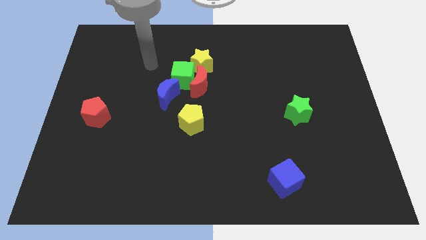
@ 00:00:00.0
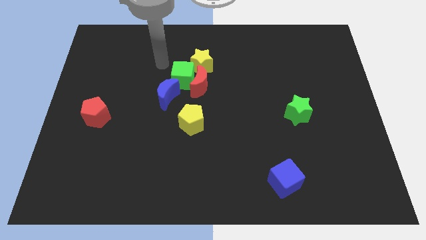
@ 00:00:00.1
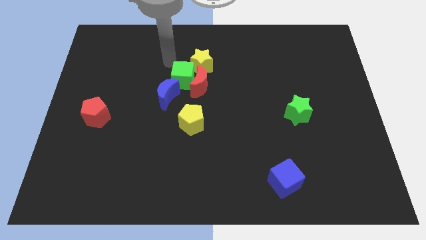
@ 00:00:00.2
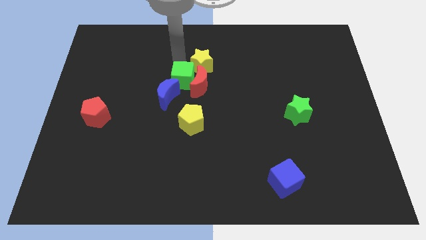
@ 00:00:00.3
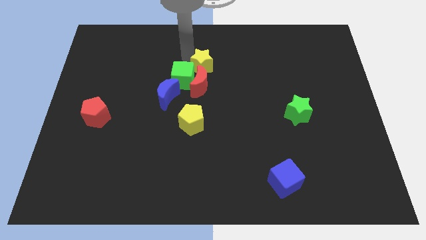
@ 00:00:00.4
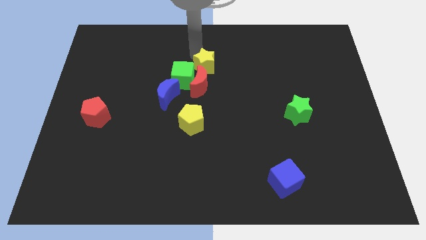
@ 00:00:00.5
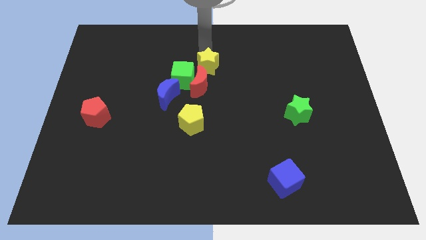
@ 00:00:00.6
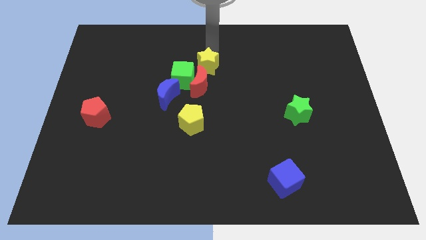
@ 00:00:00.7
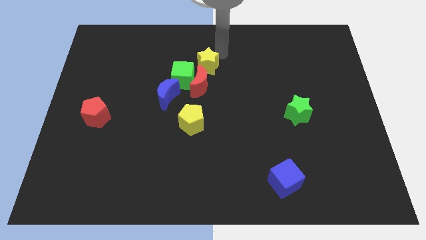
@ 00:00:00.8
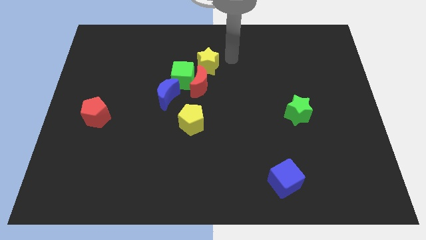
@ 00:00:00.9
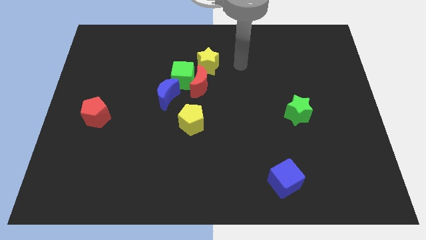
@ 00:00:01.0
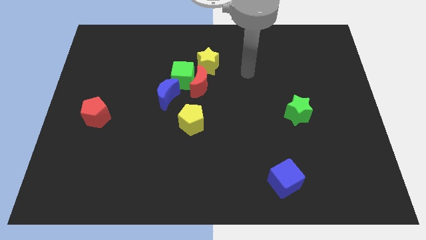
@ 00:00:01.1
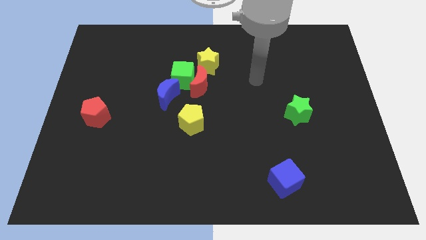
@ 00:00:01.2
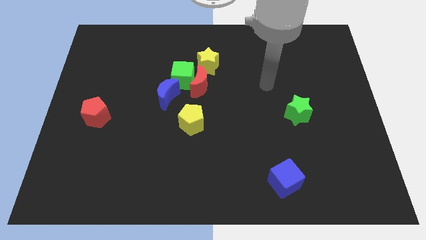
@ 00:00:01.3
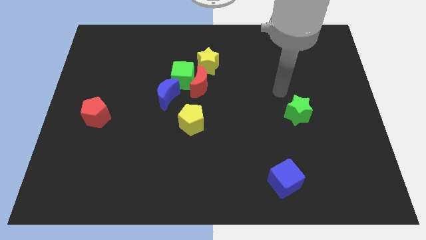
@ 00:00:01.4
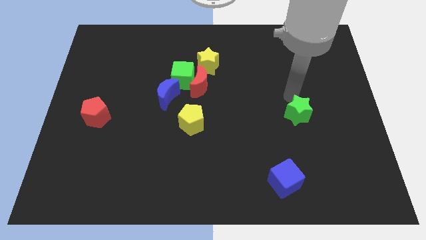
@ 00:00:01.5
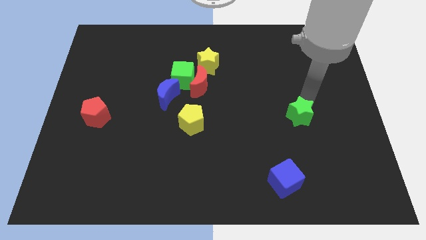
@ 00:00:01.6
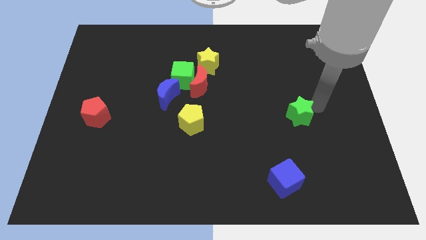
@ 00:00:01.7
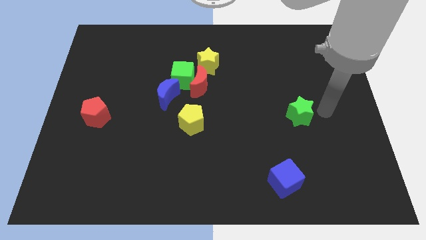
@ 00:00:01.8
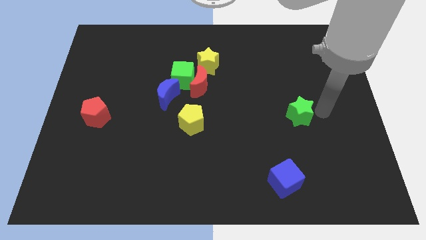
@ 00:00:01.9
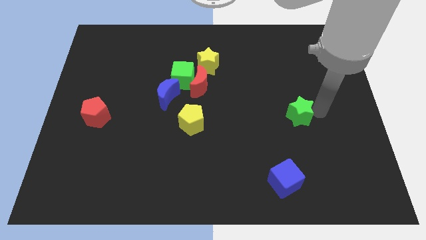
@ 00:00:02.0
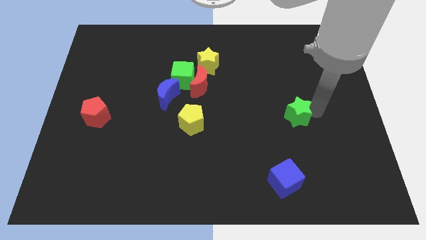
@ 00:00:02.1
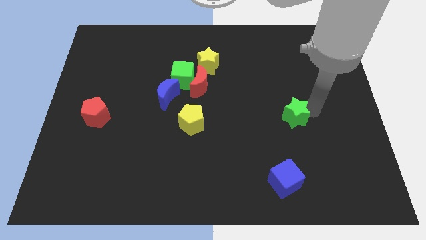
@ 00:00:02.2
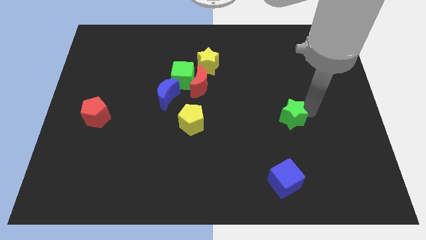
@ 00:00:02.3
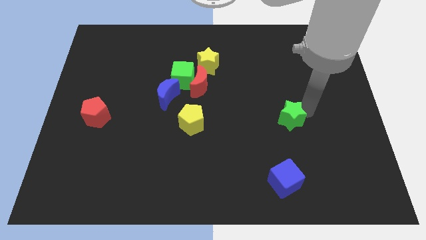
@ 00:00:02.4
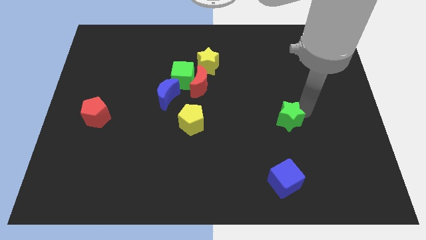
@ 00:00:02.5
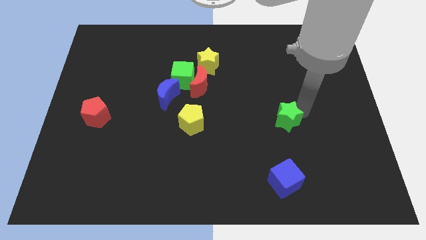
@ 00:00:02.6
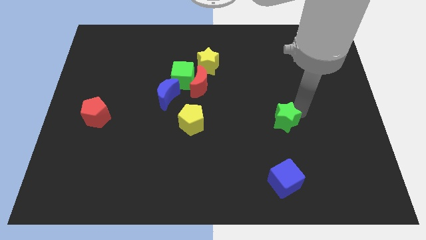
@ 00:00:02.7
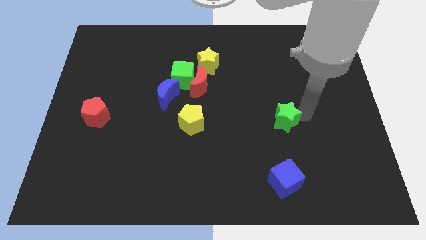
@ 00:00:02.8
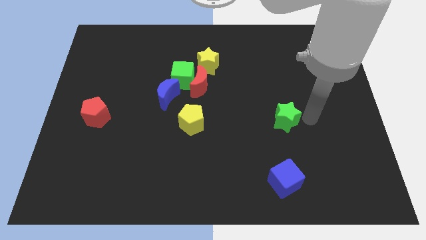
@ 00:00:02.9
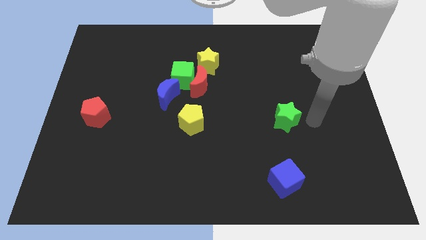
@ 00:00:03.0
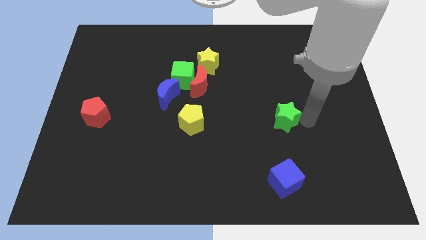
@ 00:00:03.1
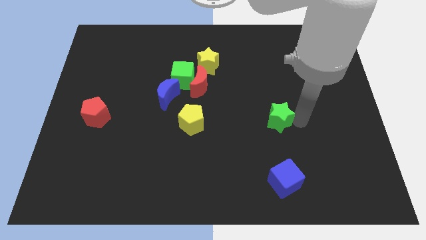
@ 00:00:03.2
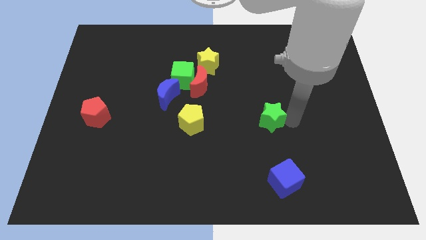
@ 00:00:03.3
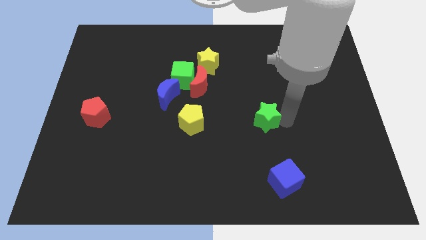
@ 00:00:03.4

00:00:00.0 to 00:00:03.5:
slide the green star slightly to the left

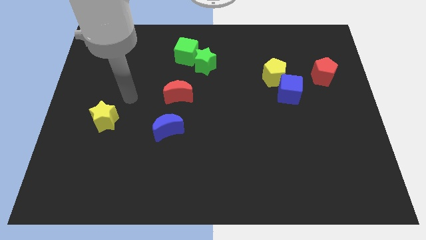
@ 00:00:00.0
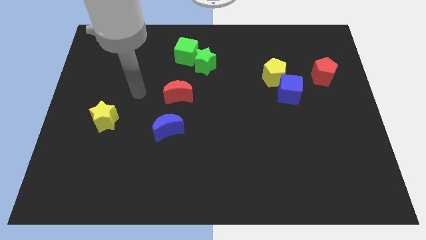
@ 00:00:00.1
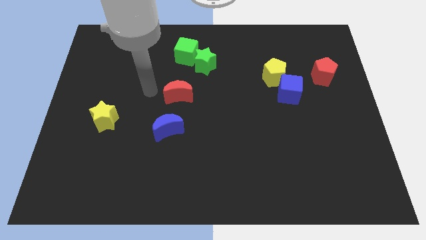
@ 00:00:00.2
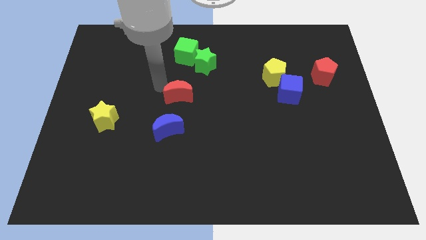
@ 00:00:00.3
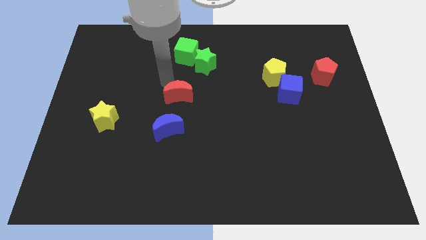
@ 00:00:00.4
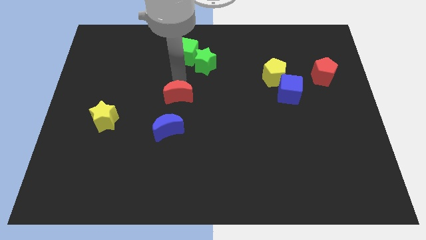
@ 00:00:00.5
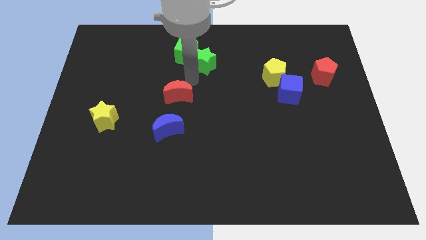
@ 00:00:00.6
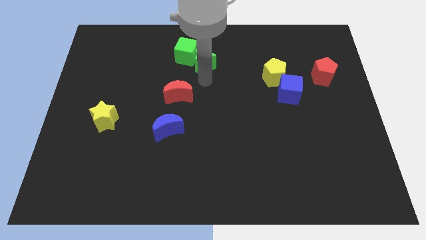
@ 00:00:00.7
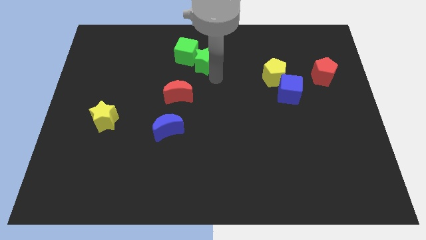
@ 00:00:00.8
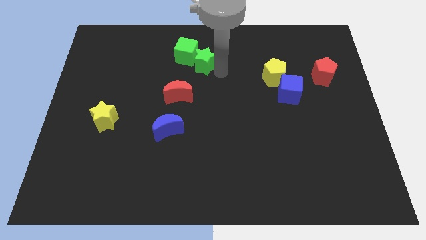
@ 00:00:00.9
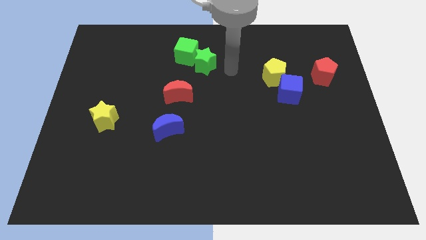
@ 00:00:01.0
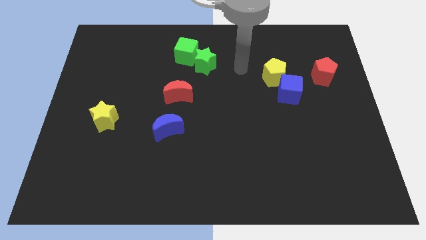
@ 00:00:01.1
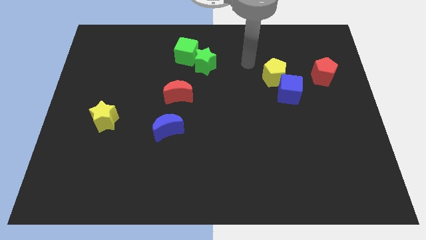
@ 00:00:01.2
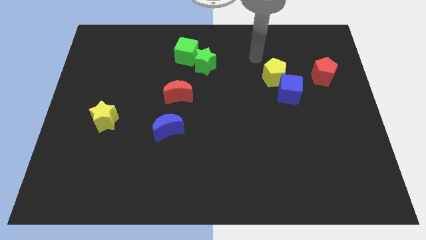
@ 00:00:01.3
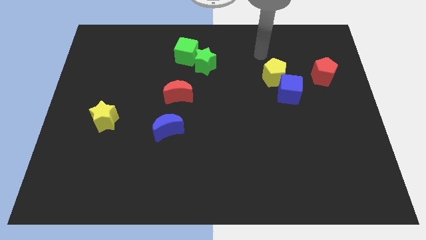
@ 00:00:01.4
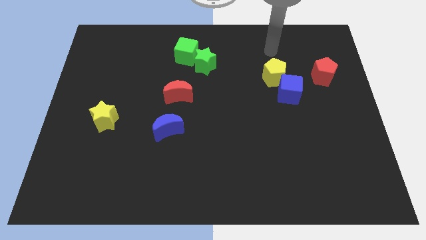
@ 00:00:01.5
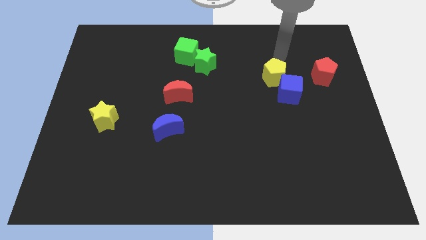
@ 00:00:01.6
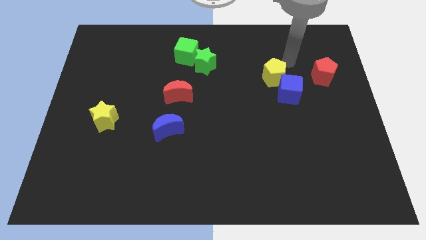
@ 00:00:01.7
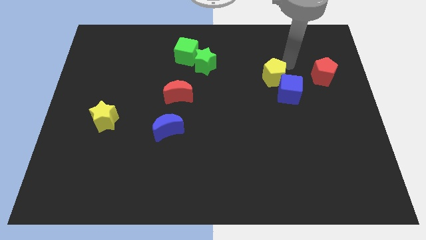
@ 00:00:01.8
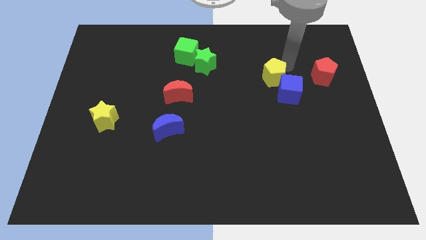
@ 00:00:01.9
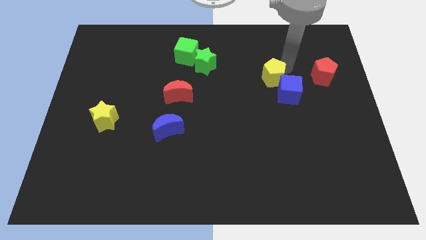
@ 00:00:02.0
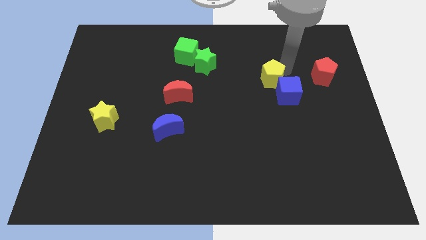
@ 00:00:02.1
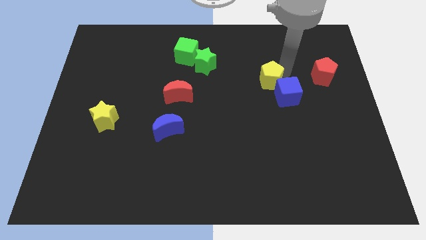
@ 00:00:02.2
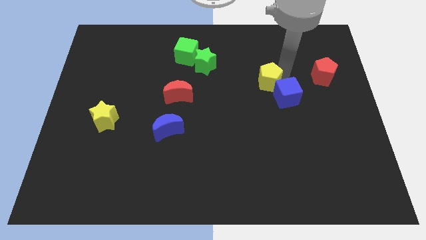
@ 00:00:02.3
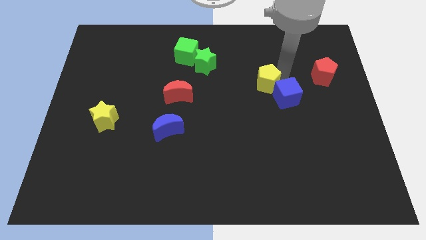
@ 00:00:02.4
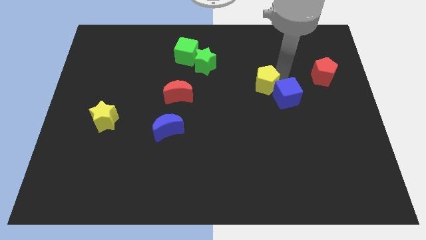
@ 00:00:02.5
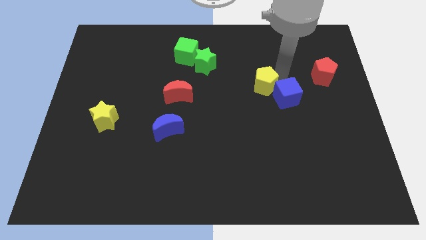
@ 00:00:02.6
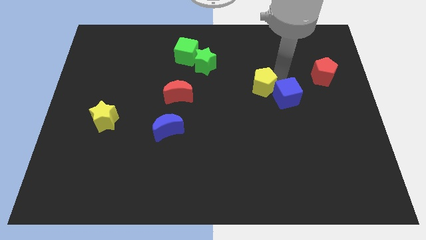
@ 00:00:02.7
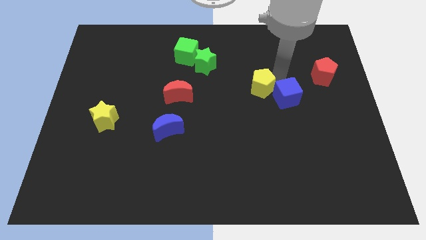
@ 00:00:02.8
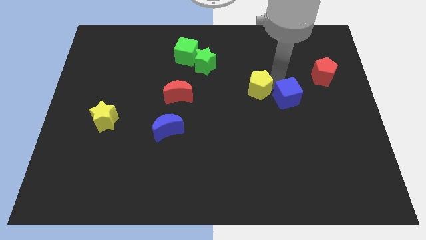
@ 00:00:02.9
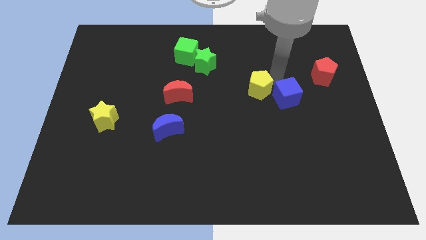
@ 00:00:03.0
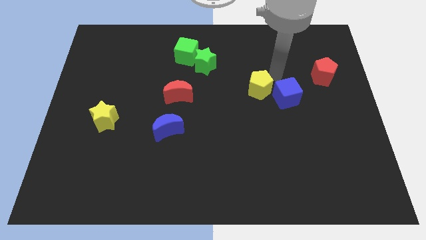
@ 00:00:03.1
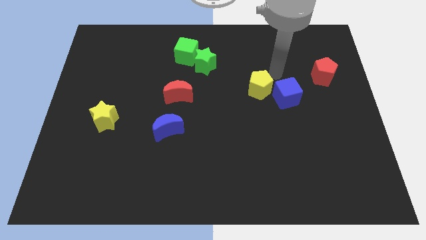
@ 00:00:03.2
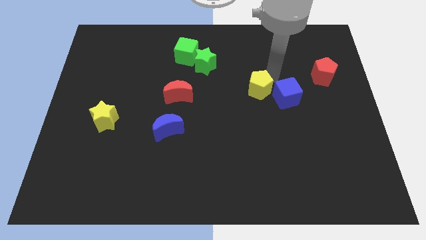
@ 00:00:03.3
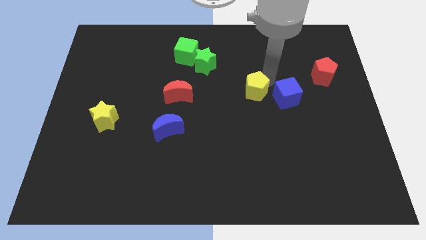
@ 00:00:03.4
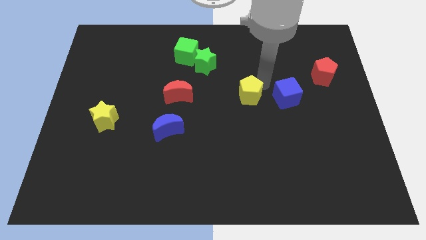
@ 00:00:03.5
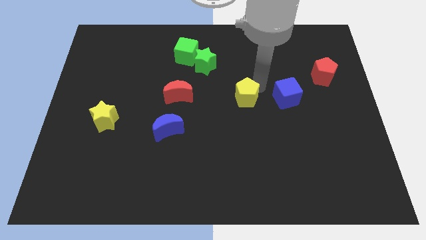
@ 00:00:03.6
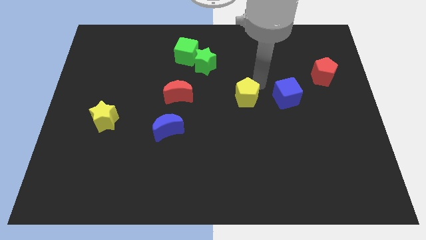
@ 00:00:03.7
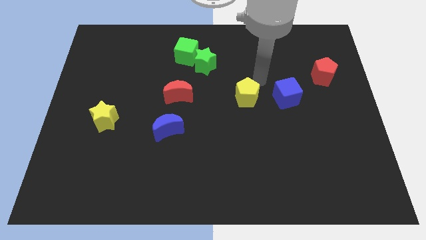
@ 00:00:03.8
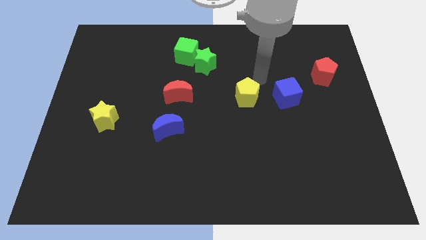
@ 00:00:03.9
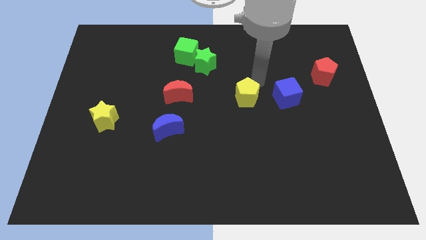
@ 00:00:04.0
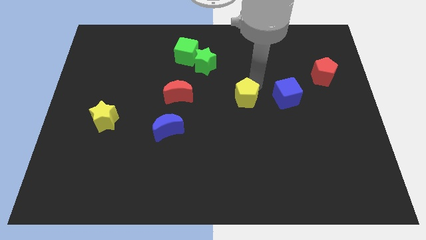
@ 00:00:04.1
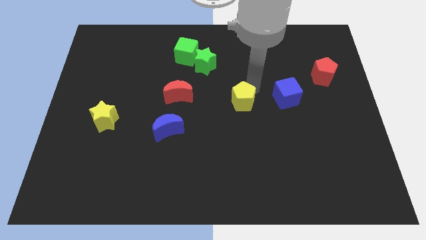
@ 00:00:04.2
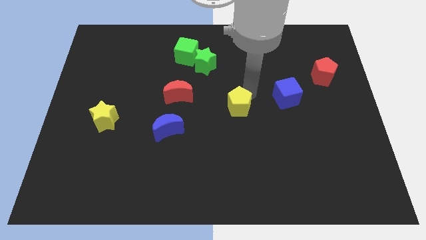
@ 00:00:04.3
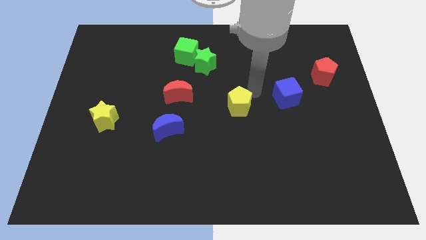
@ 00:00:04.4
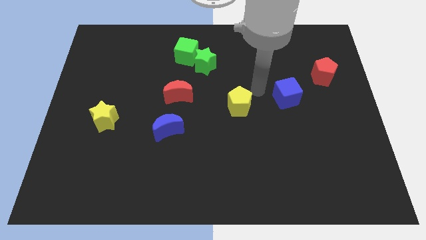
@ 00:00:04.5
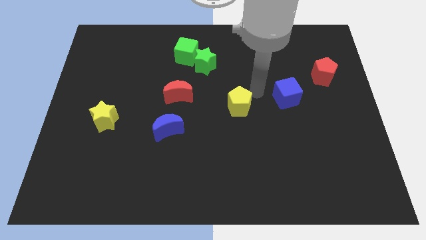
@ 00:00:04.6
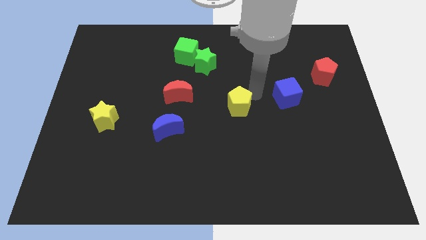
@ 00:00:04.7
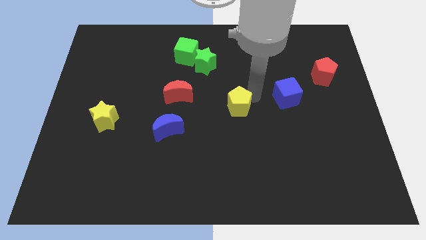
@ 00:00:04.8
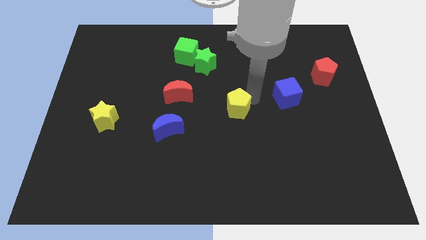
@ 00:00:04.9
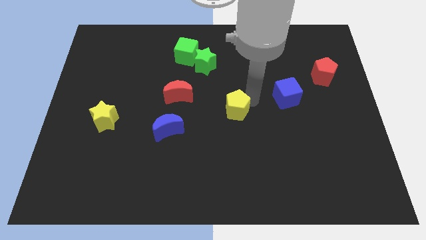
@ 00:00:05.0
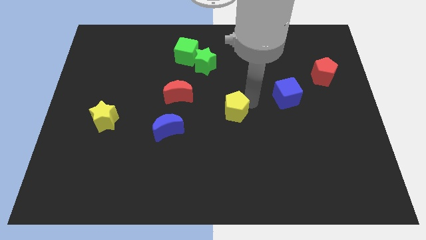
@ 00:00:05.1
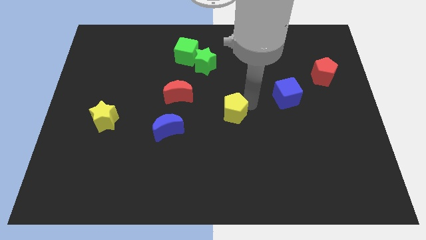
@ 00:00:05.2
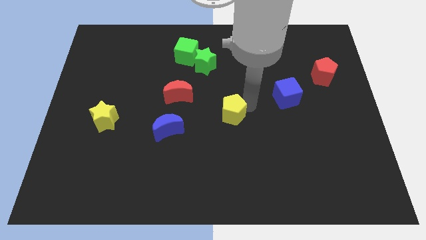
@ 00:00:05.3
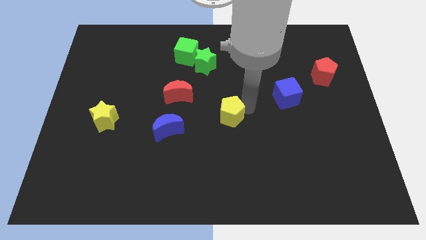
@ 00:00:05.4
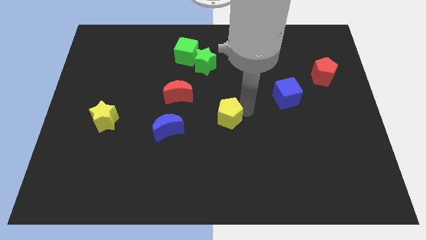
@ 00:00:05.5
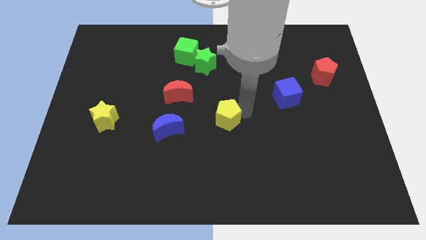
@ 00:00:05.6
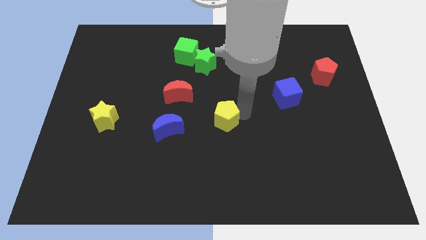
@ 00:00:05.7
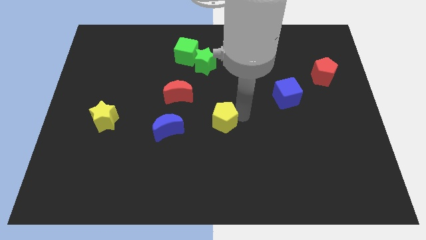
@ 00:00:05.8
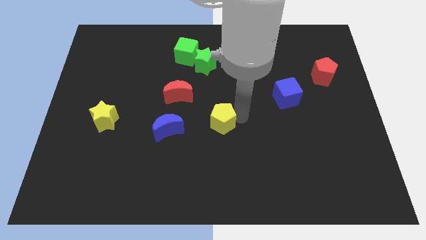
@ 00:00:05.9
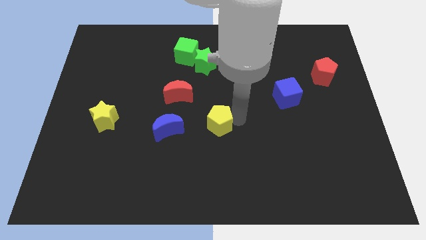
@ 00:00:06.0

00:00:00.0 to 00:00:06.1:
push the yellow pentagon downwards and left diagonally
